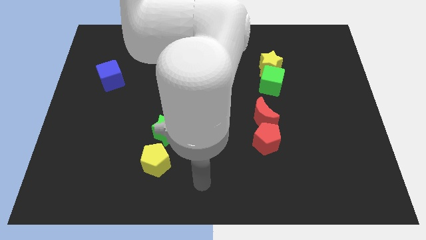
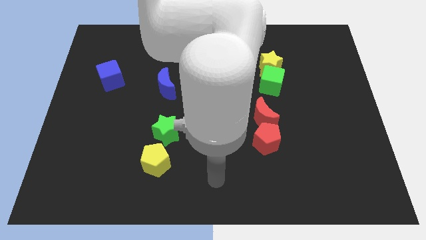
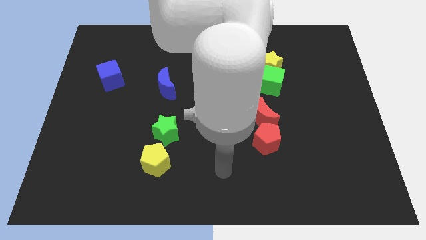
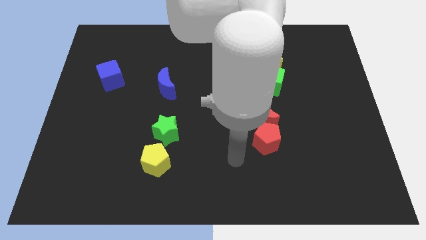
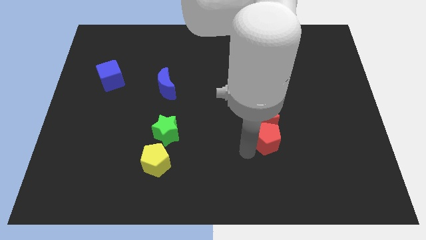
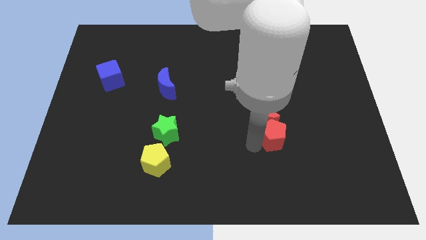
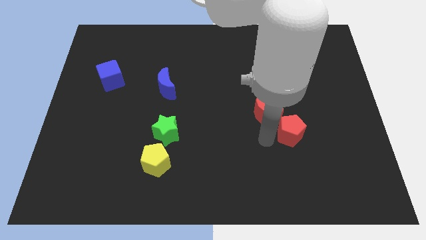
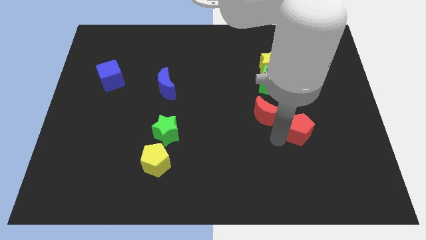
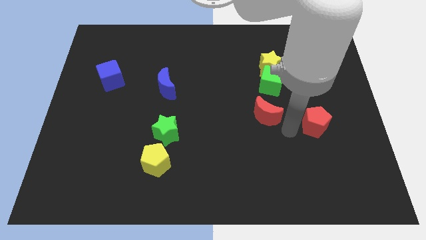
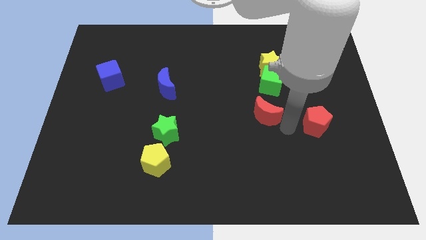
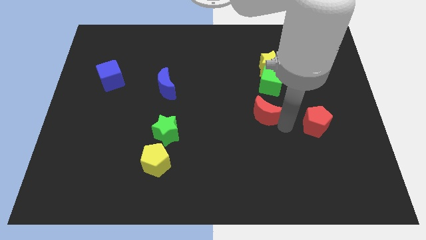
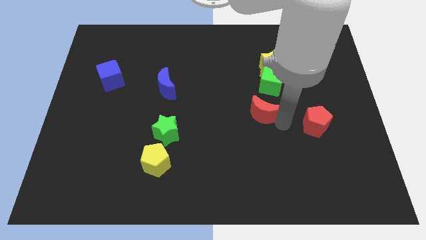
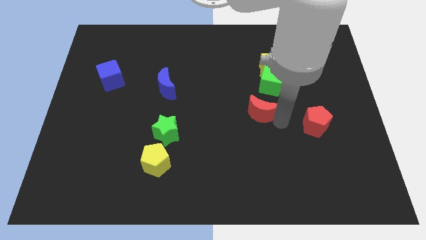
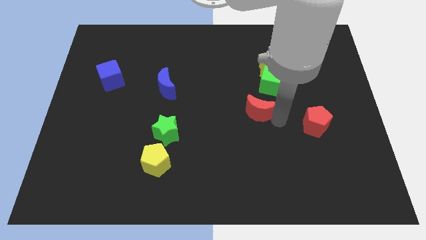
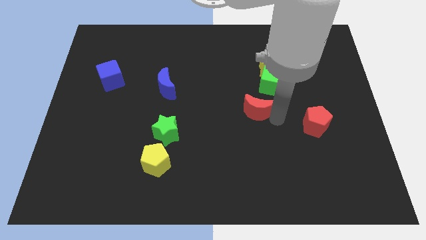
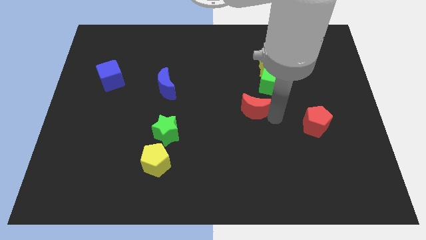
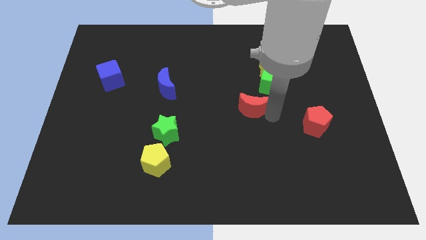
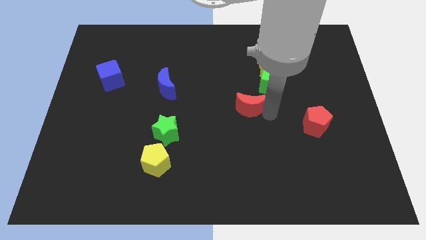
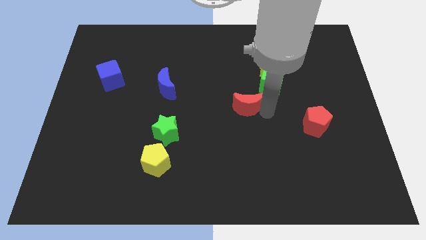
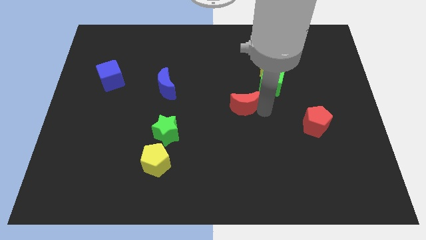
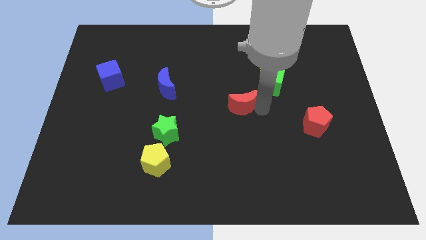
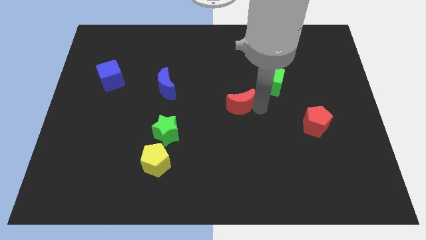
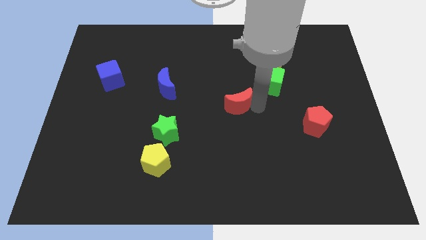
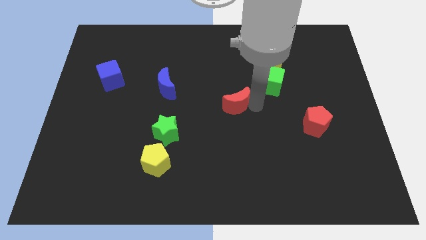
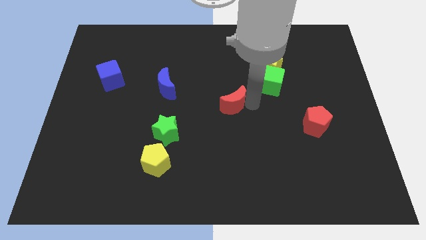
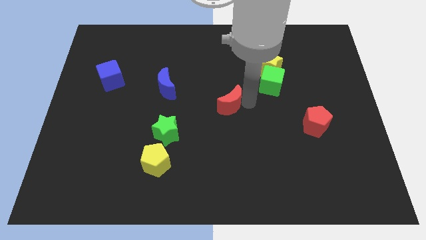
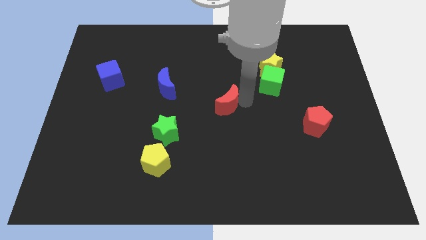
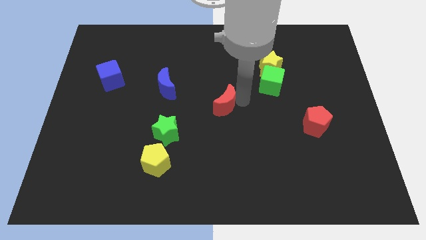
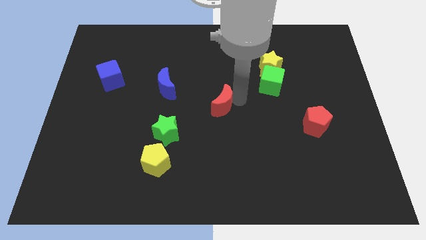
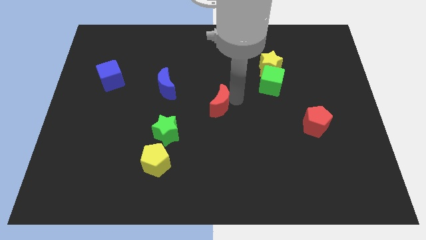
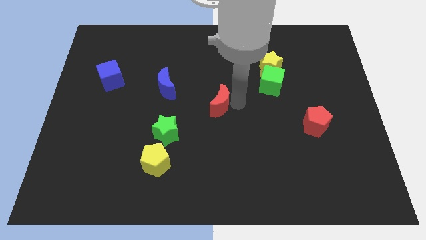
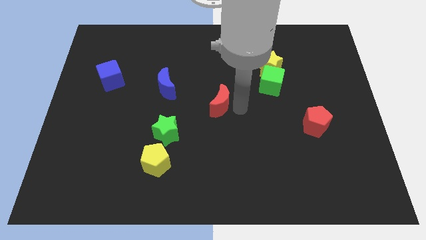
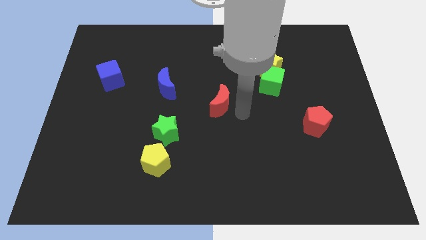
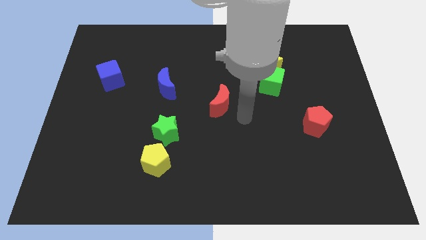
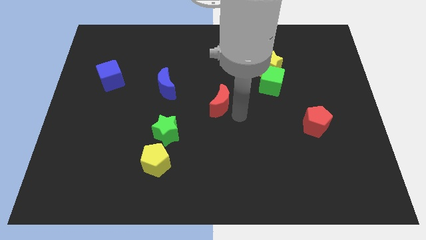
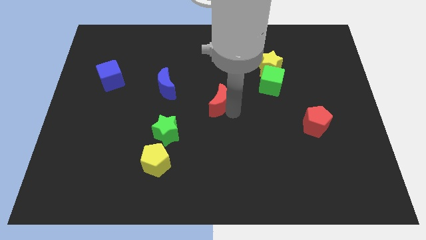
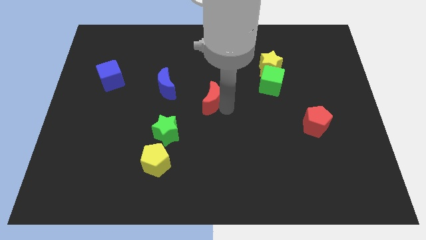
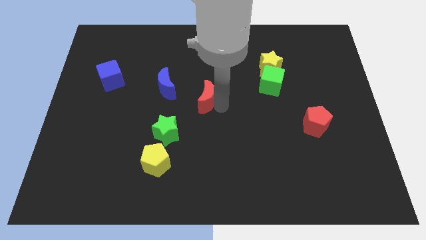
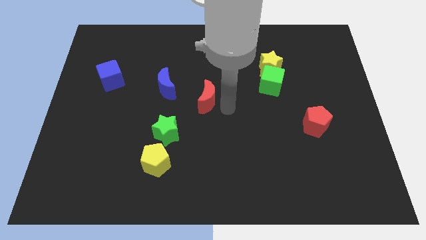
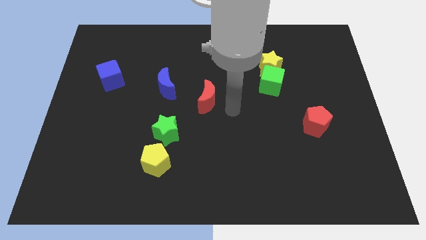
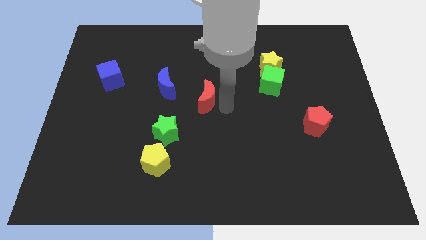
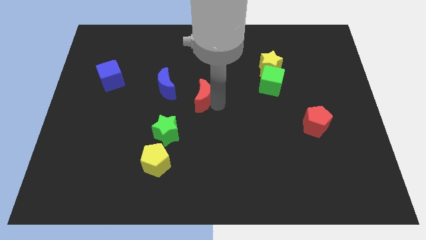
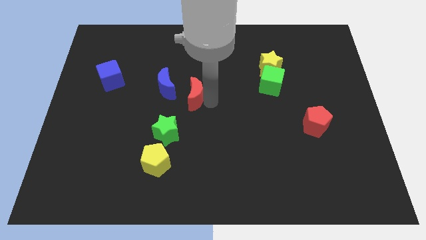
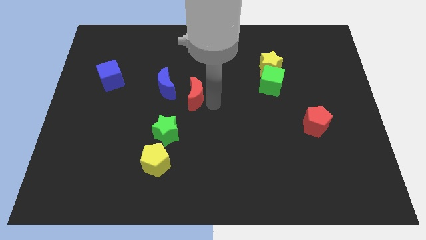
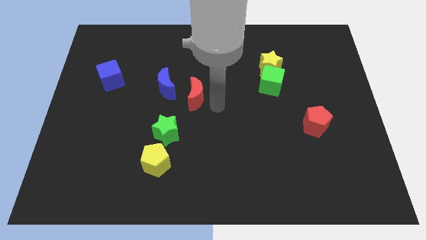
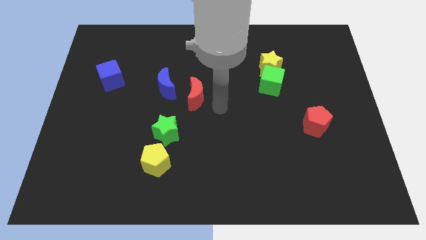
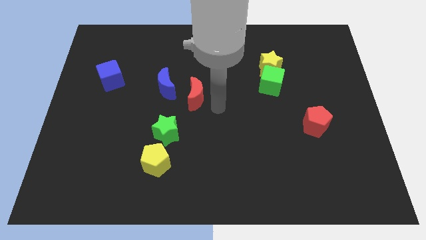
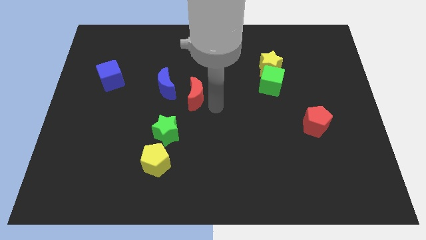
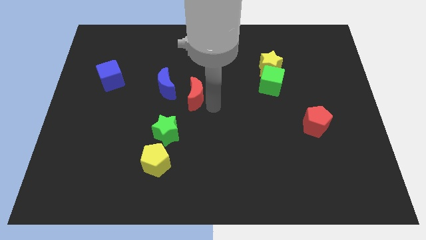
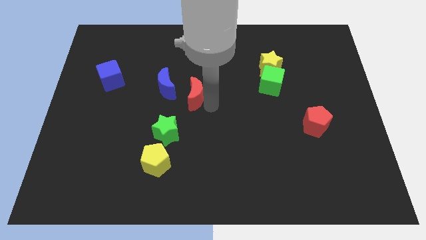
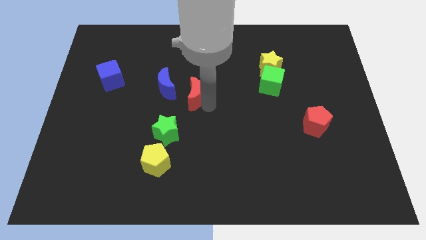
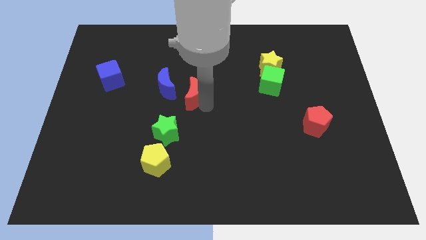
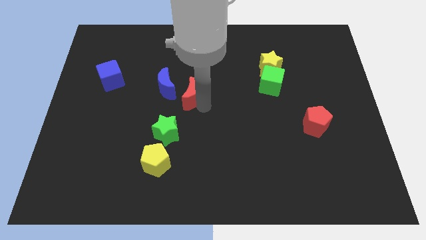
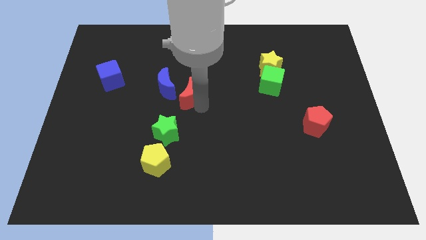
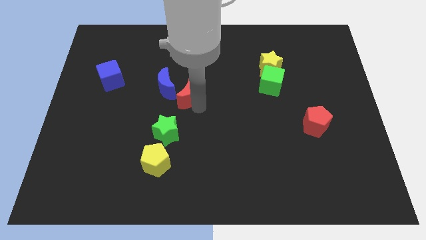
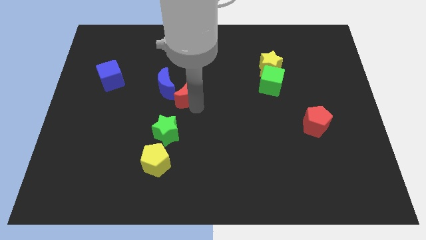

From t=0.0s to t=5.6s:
push the red moon to the blue moon

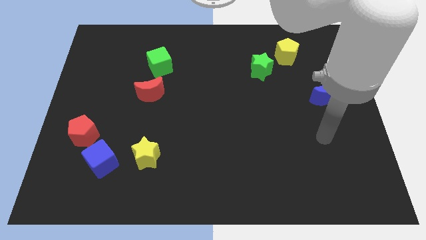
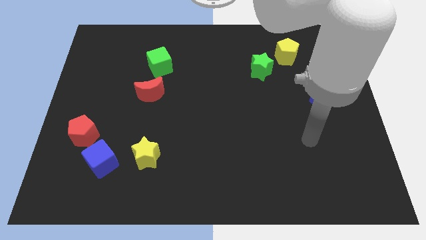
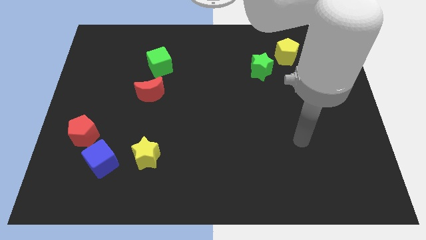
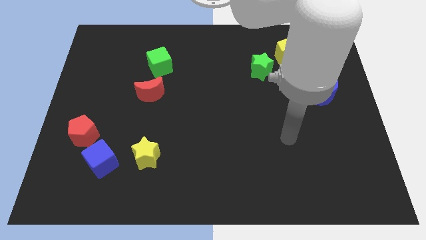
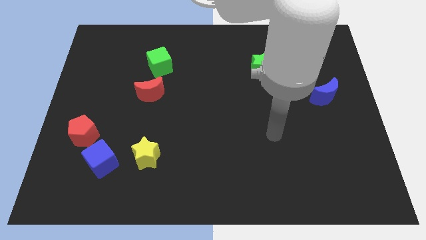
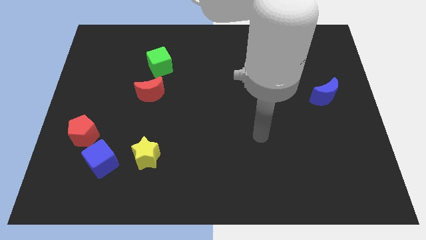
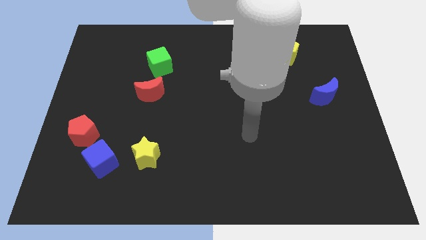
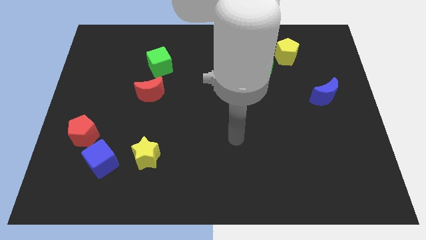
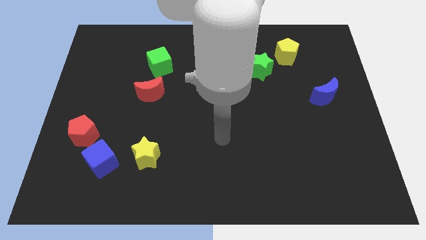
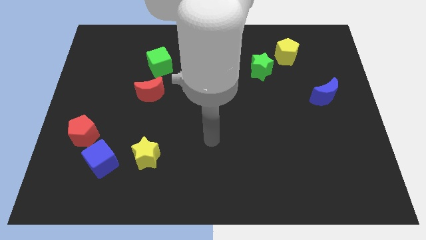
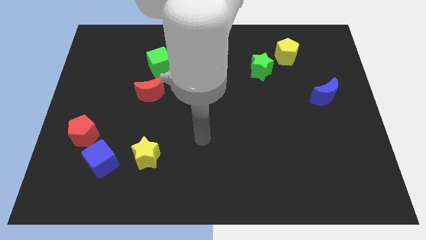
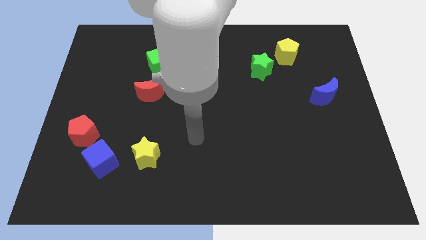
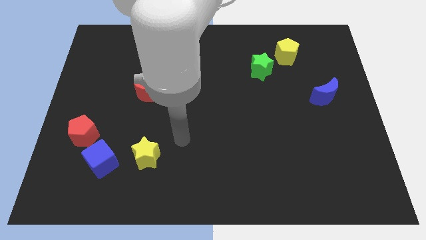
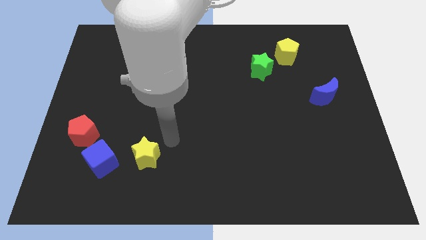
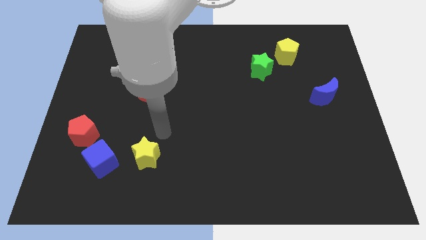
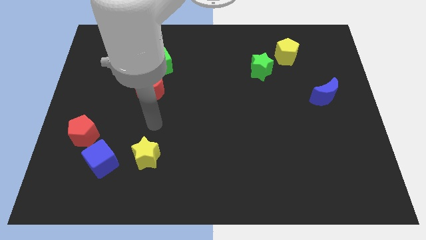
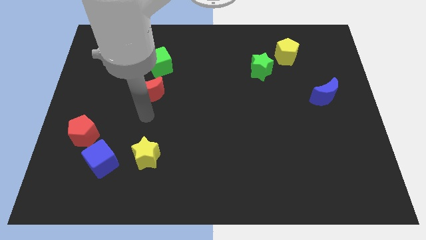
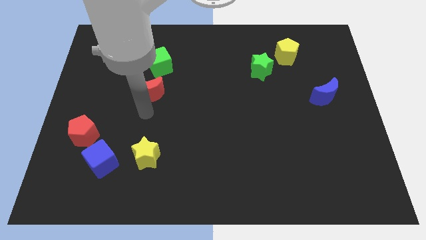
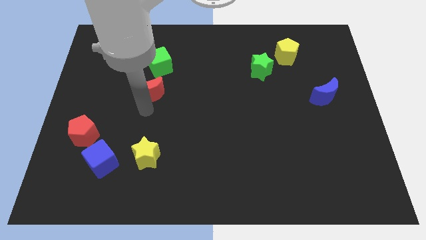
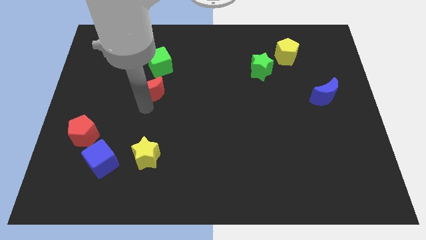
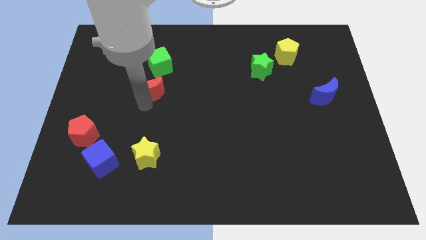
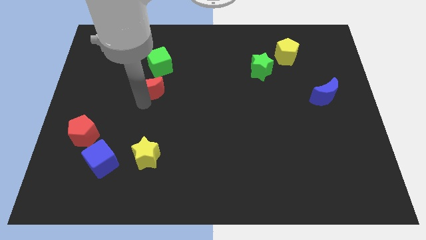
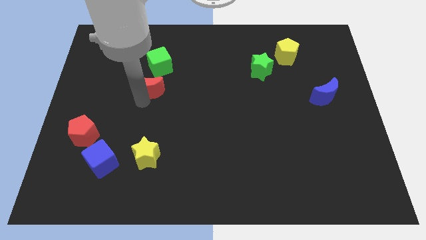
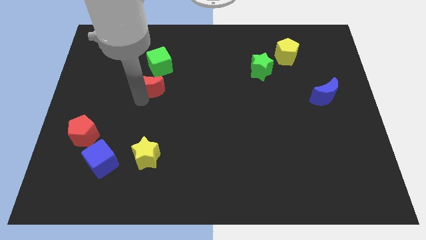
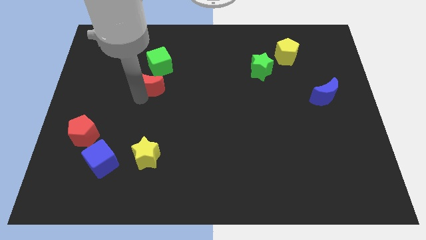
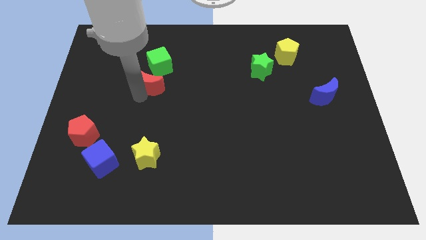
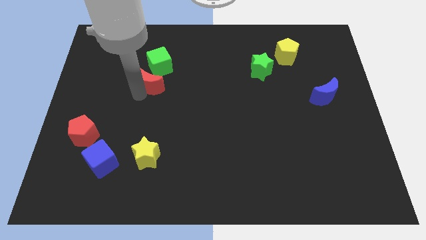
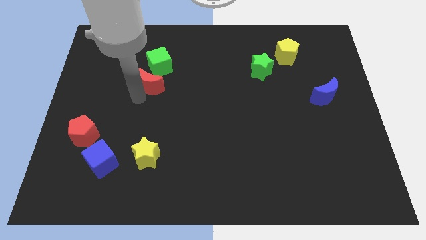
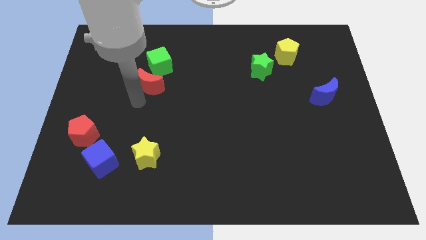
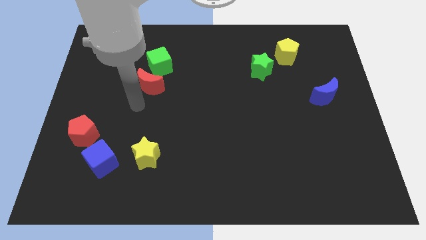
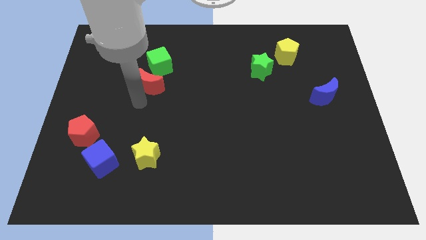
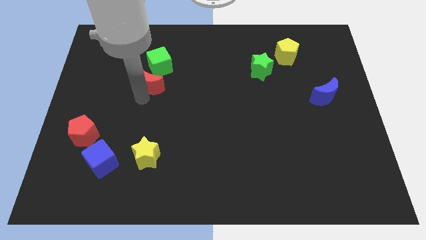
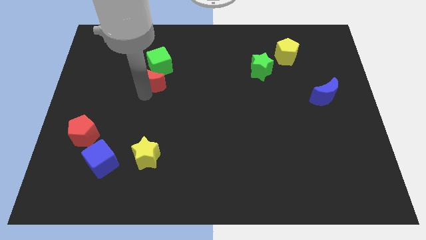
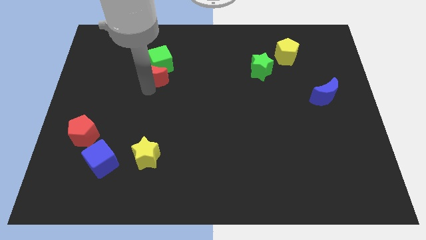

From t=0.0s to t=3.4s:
push the red moon next to the green cube
